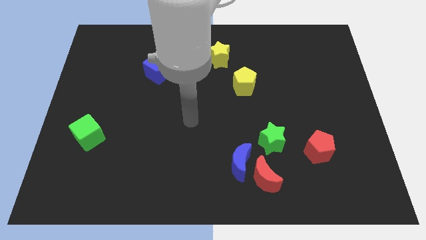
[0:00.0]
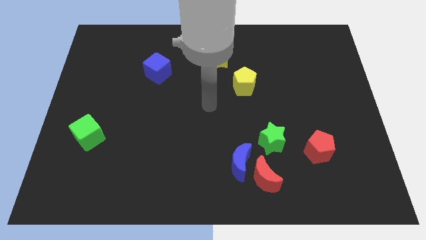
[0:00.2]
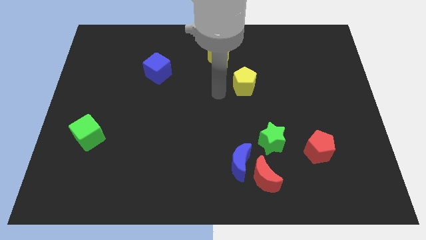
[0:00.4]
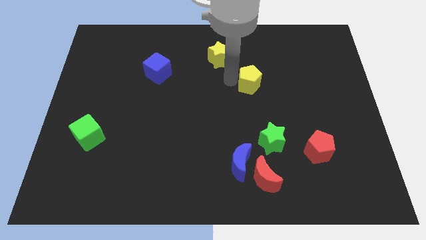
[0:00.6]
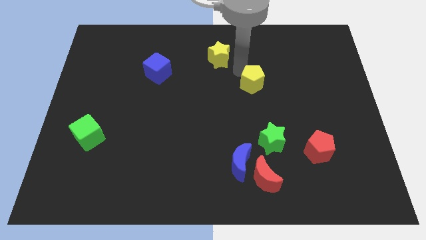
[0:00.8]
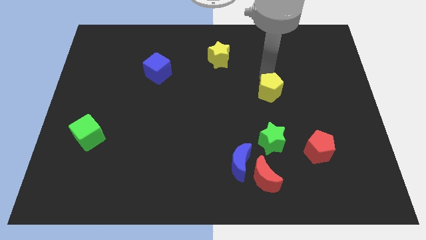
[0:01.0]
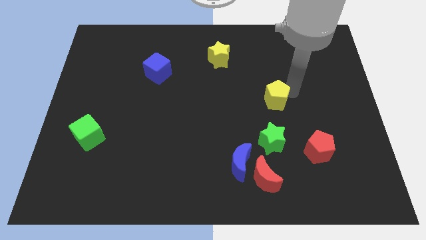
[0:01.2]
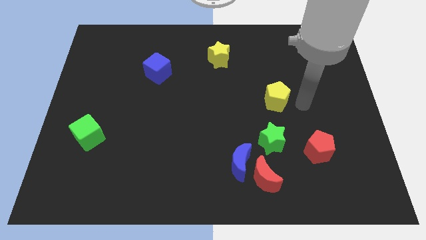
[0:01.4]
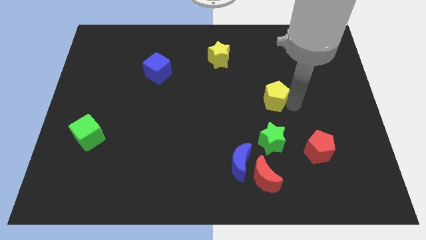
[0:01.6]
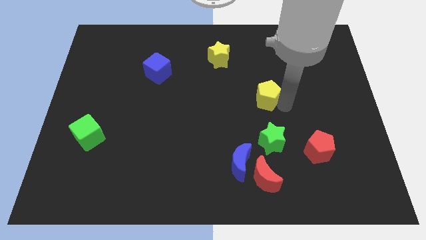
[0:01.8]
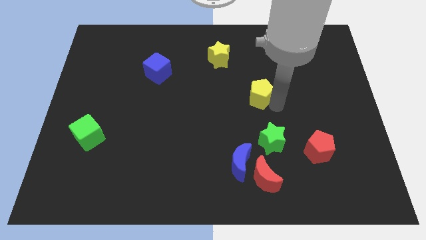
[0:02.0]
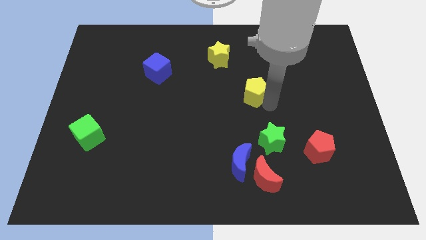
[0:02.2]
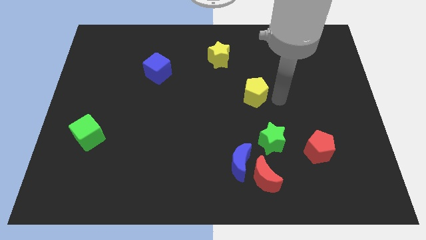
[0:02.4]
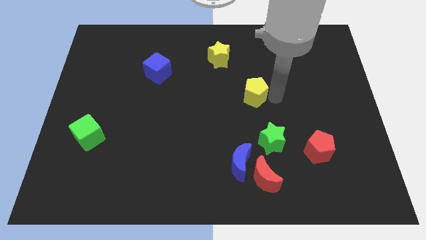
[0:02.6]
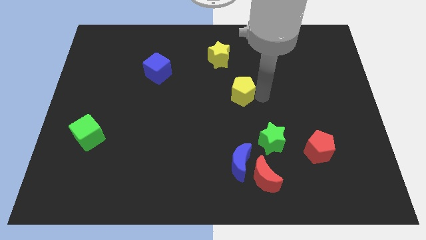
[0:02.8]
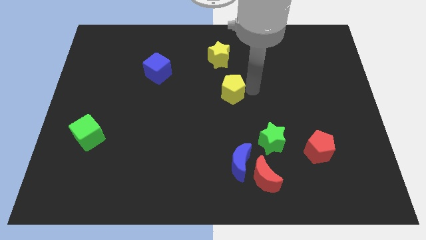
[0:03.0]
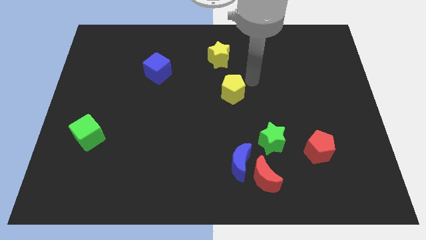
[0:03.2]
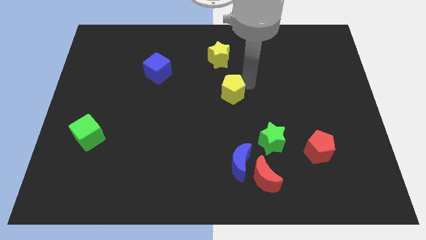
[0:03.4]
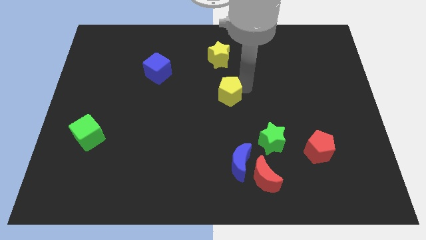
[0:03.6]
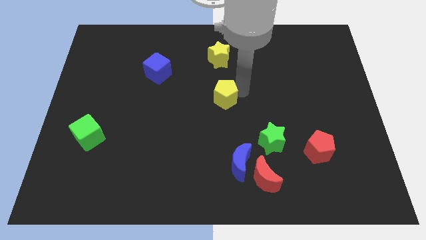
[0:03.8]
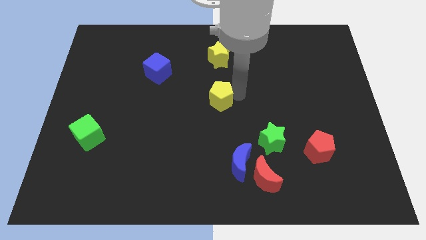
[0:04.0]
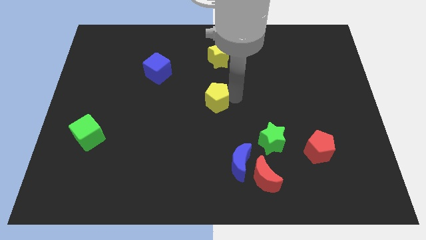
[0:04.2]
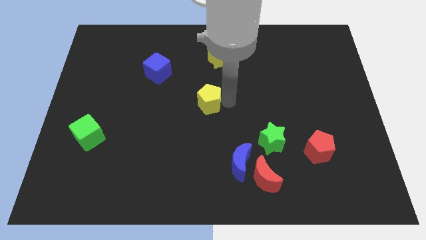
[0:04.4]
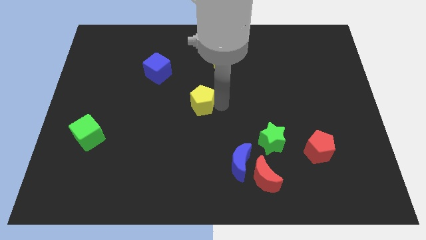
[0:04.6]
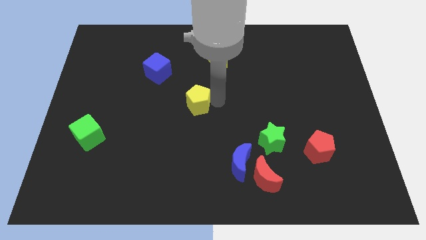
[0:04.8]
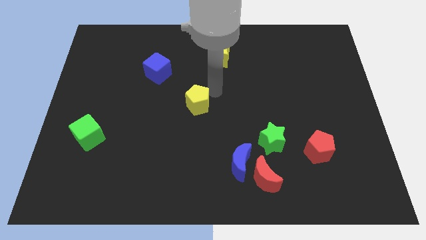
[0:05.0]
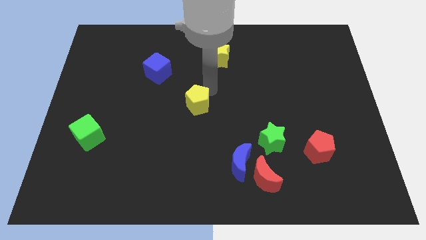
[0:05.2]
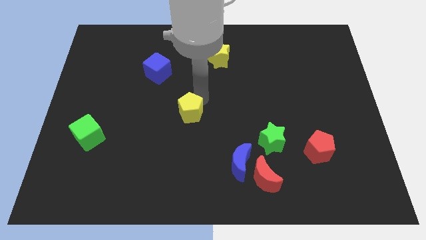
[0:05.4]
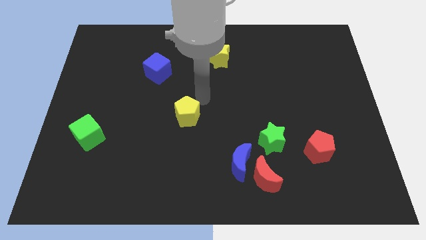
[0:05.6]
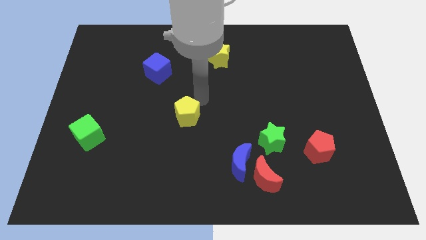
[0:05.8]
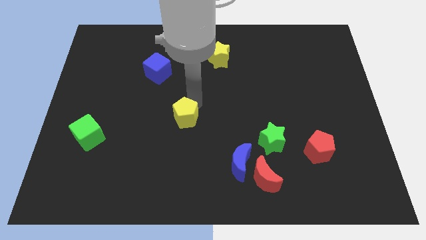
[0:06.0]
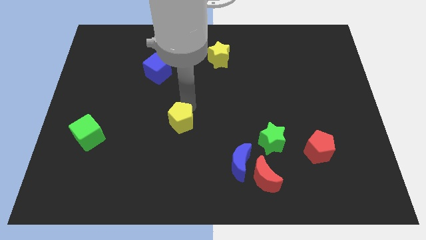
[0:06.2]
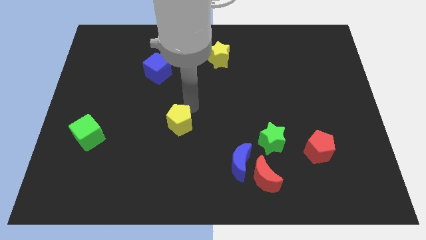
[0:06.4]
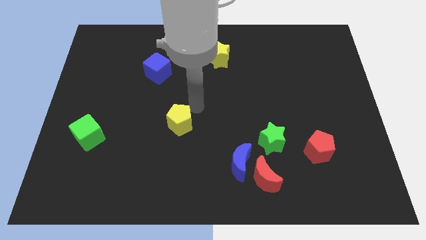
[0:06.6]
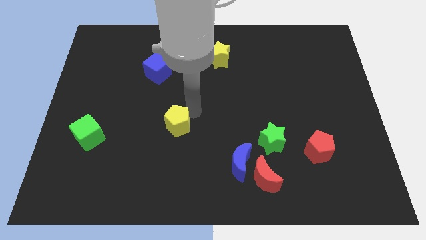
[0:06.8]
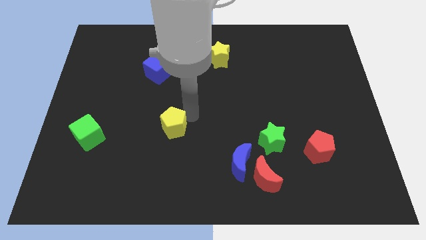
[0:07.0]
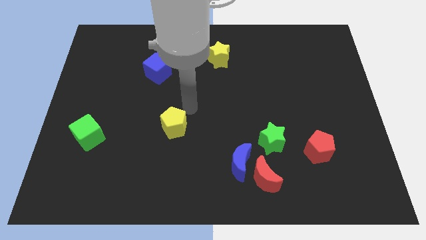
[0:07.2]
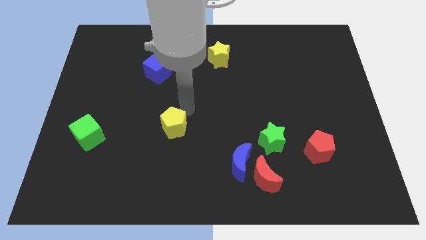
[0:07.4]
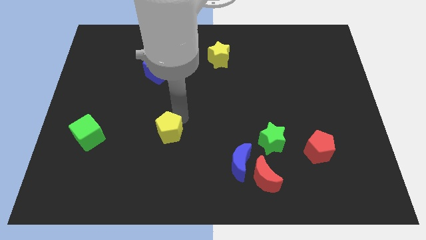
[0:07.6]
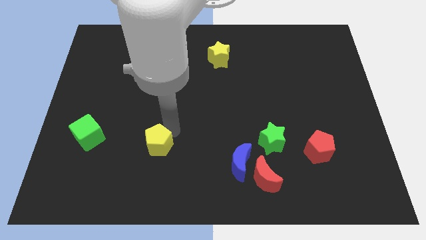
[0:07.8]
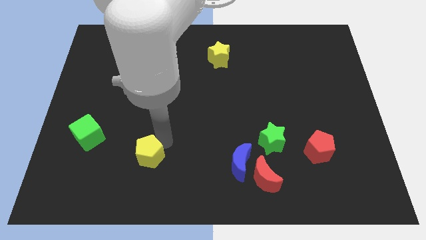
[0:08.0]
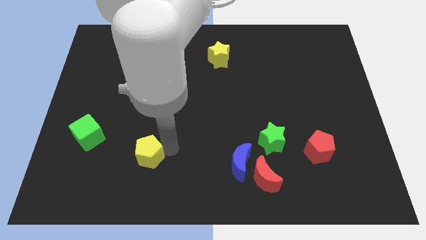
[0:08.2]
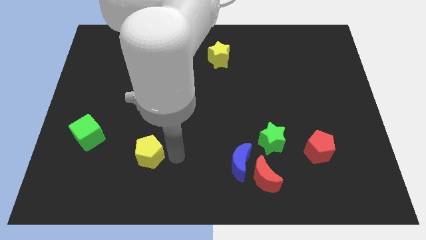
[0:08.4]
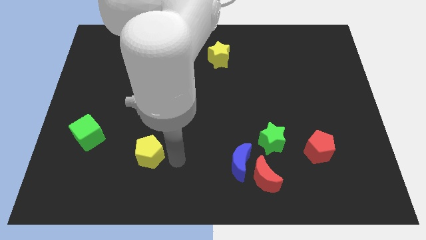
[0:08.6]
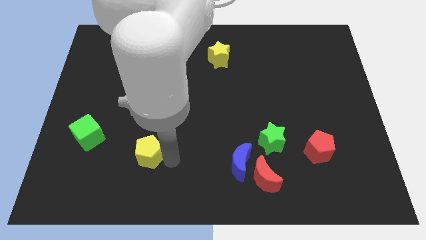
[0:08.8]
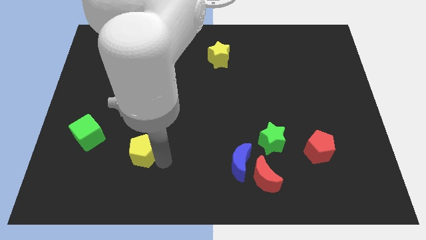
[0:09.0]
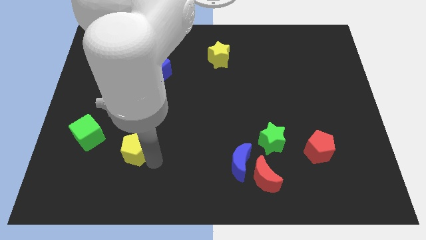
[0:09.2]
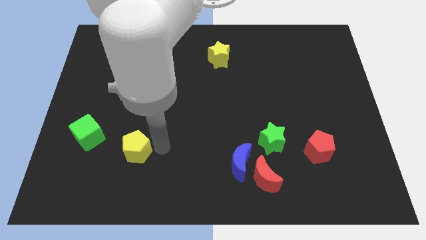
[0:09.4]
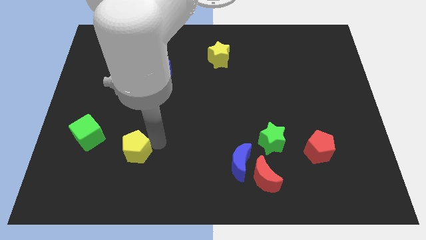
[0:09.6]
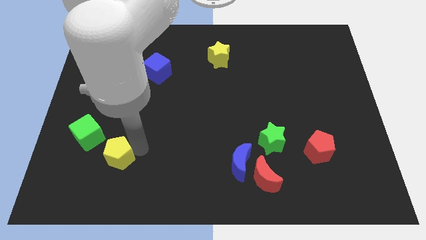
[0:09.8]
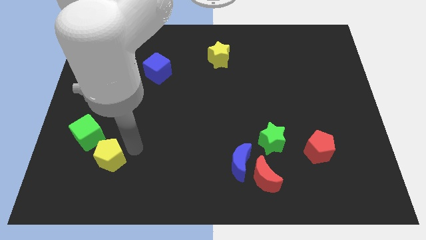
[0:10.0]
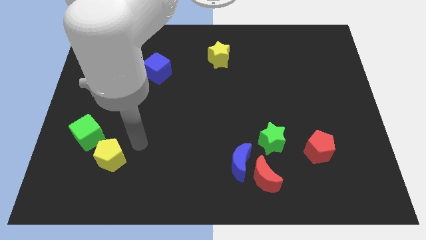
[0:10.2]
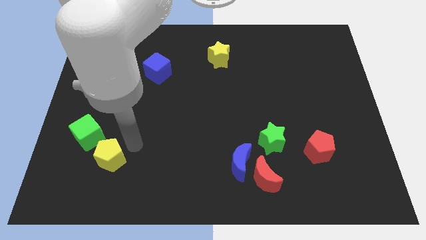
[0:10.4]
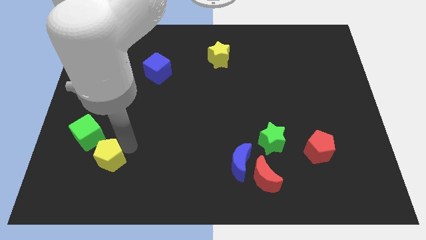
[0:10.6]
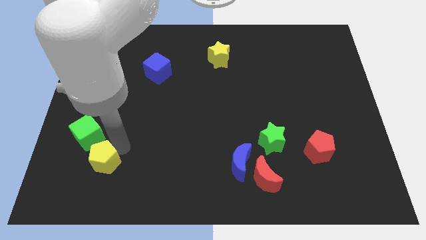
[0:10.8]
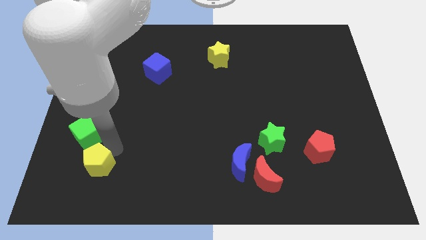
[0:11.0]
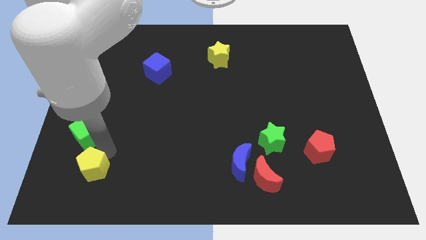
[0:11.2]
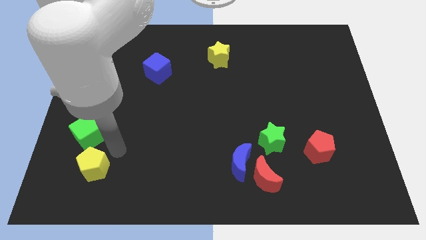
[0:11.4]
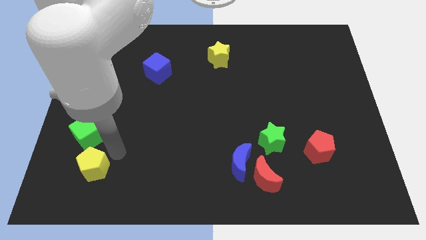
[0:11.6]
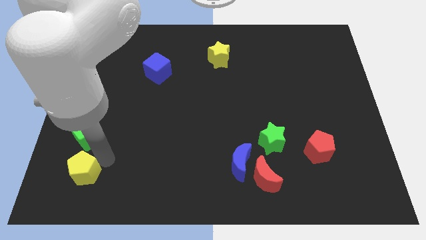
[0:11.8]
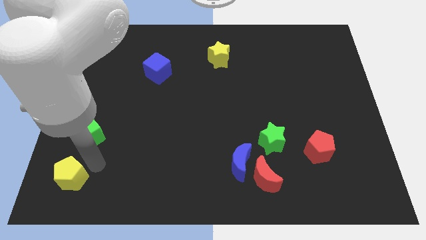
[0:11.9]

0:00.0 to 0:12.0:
move the yellow pentagon to the lower left corner

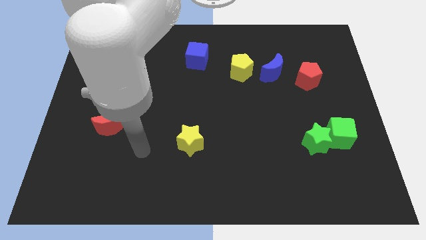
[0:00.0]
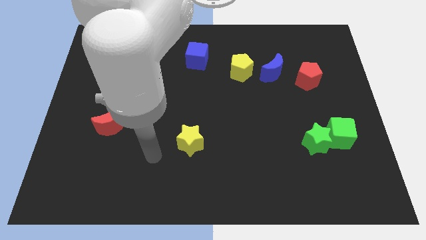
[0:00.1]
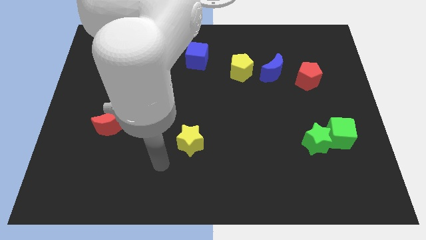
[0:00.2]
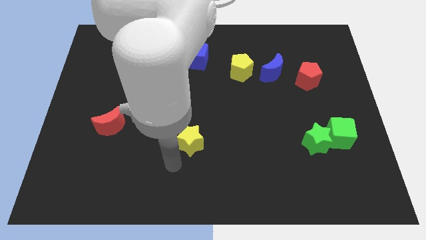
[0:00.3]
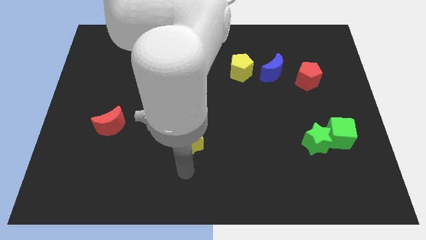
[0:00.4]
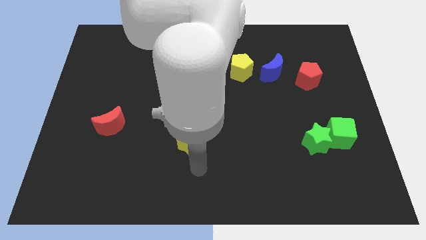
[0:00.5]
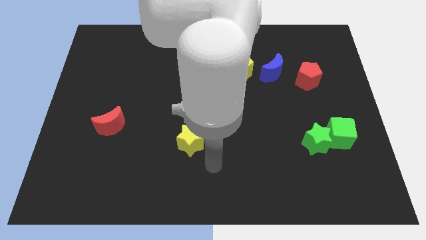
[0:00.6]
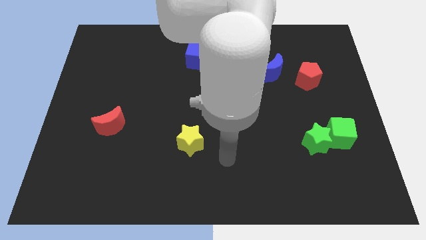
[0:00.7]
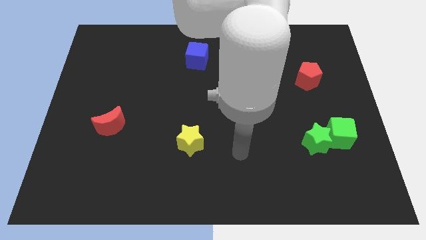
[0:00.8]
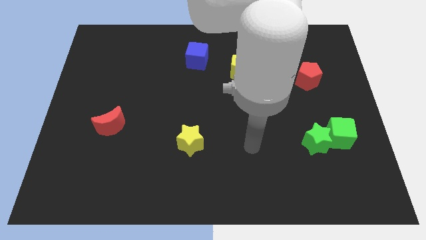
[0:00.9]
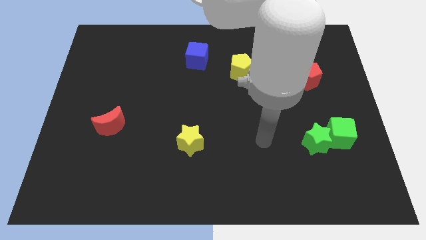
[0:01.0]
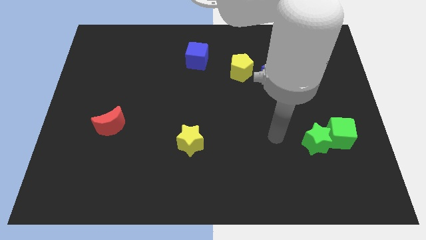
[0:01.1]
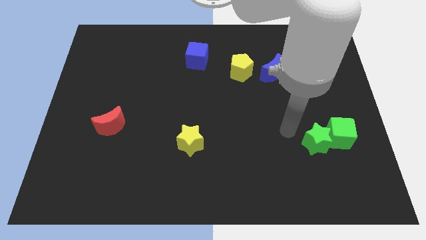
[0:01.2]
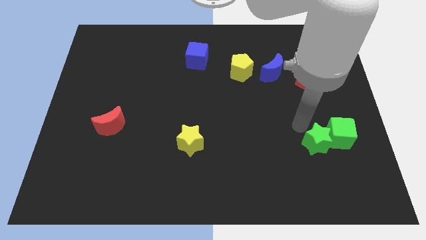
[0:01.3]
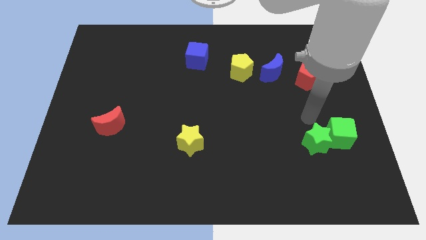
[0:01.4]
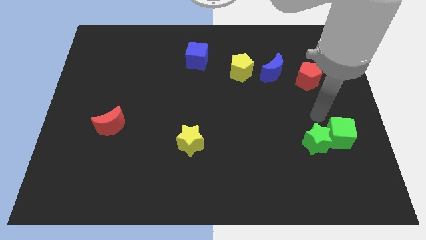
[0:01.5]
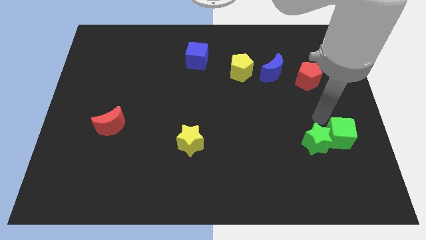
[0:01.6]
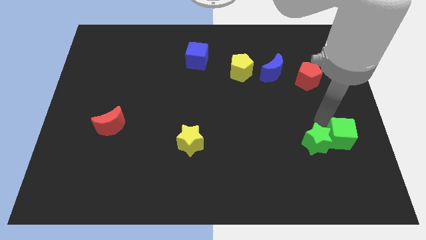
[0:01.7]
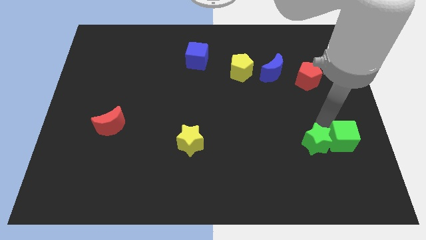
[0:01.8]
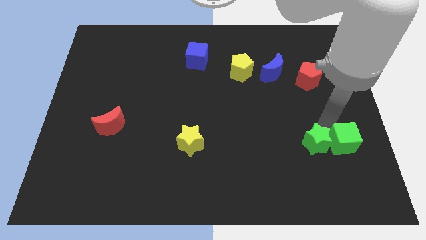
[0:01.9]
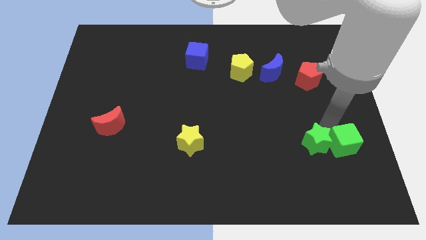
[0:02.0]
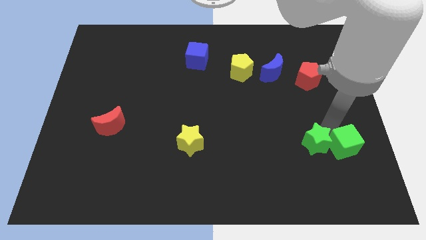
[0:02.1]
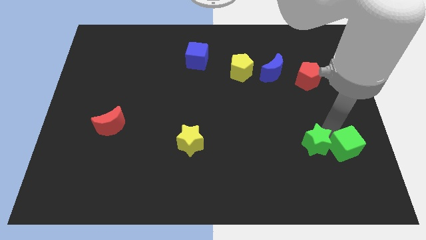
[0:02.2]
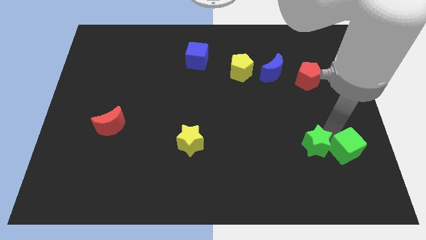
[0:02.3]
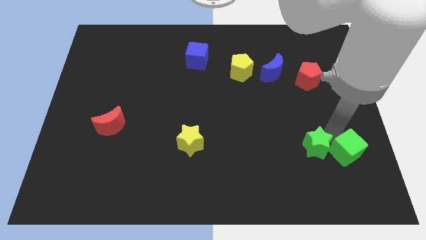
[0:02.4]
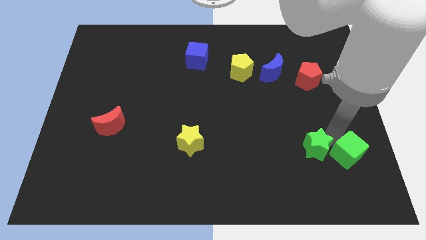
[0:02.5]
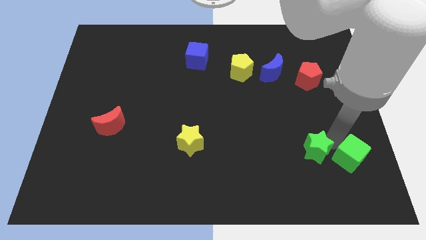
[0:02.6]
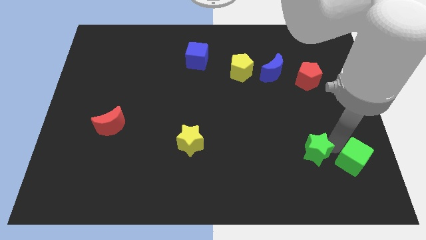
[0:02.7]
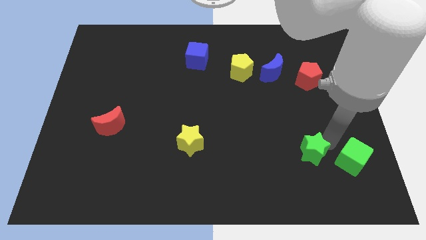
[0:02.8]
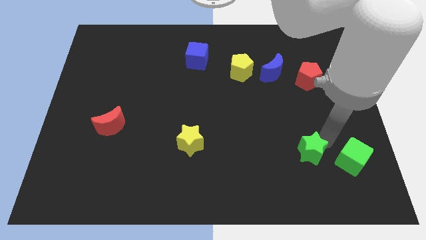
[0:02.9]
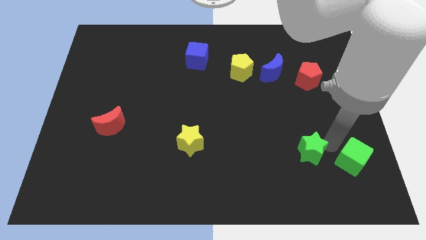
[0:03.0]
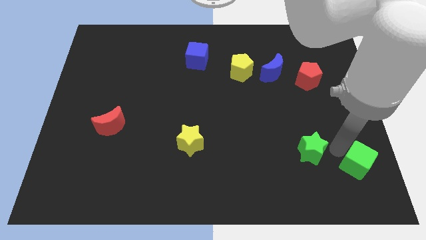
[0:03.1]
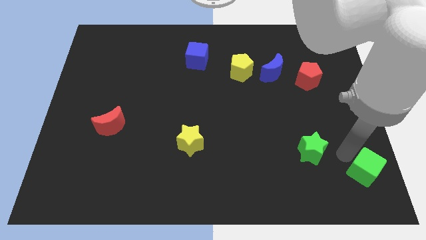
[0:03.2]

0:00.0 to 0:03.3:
put the green cube to the lower right corner
